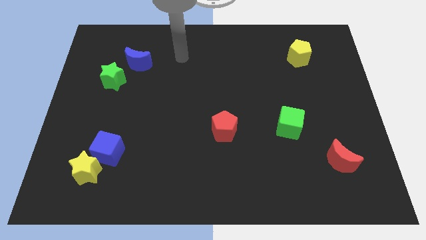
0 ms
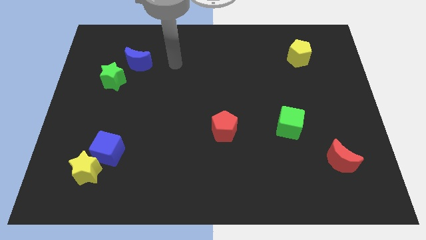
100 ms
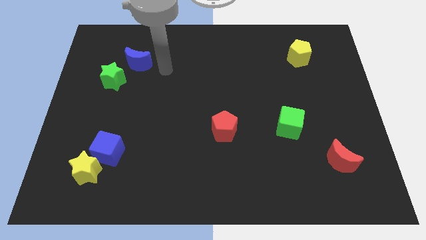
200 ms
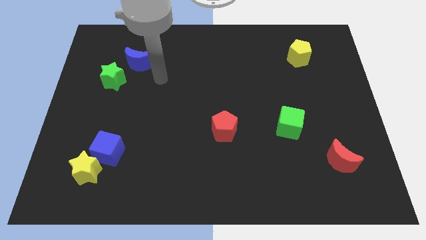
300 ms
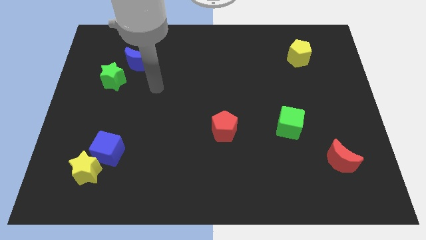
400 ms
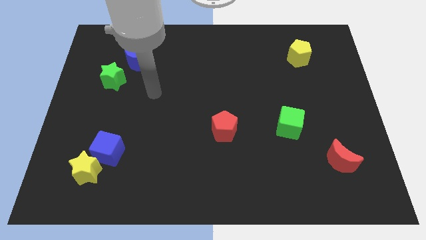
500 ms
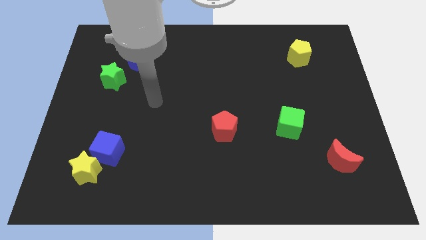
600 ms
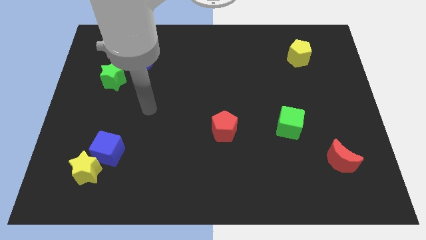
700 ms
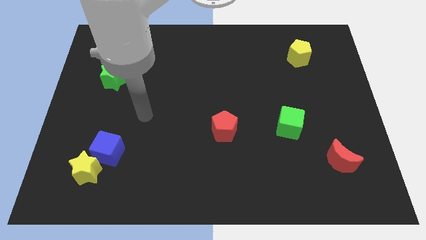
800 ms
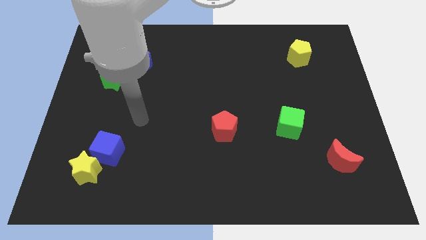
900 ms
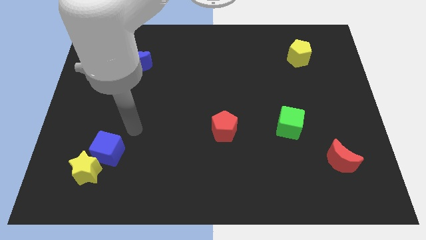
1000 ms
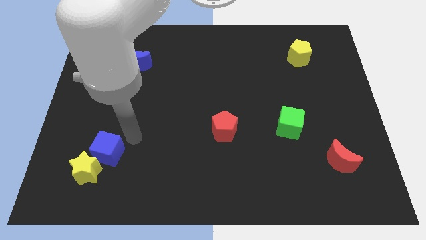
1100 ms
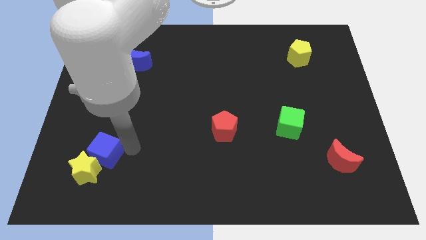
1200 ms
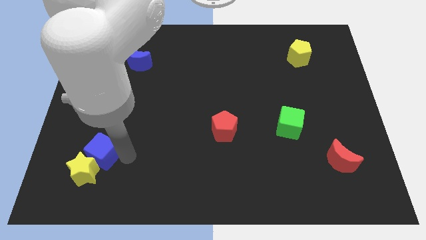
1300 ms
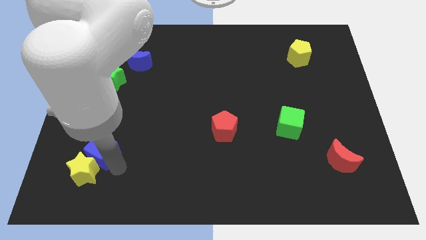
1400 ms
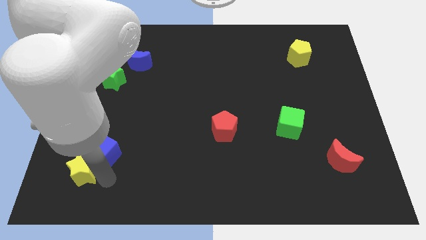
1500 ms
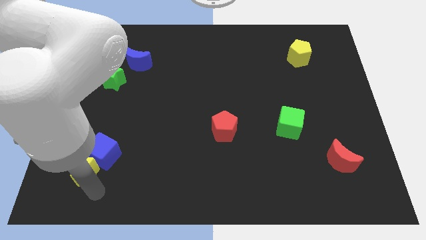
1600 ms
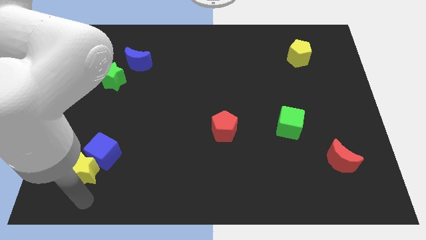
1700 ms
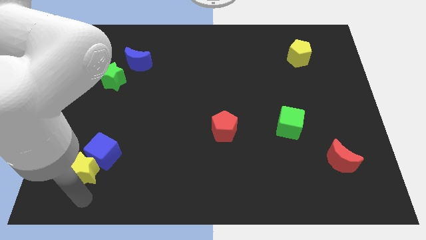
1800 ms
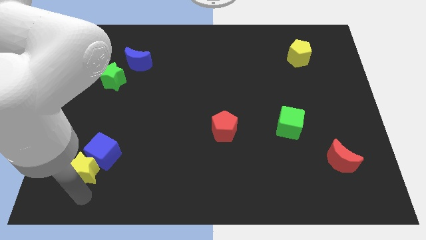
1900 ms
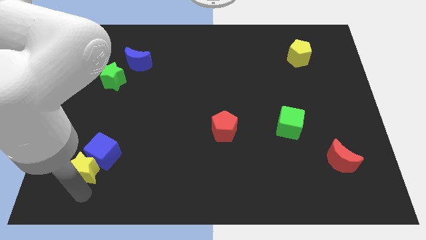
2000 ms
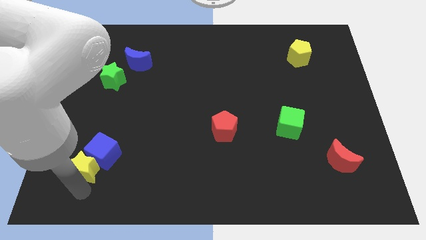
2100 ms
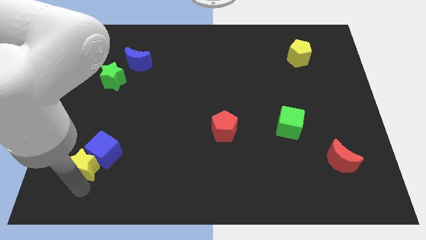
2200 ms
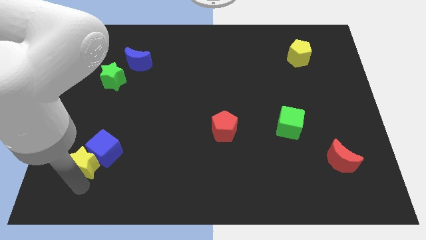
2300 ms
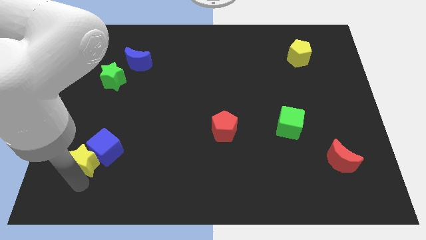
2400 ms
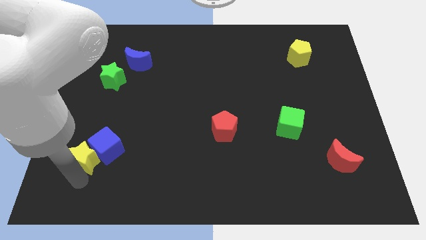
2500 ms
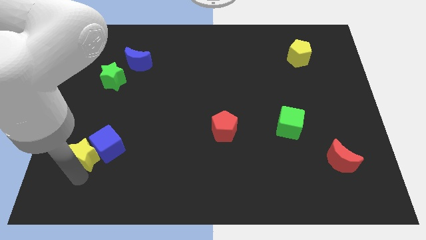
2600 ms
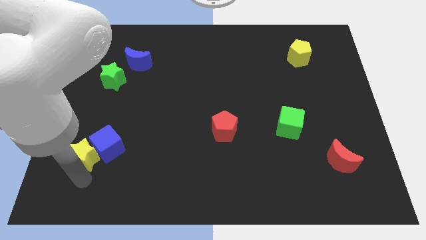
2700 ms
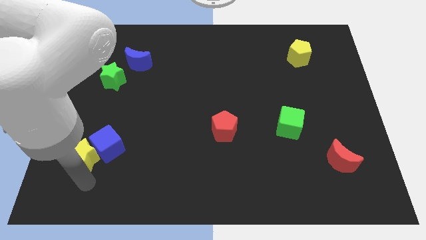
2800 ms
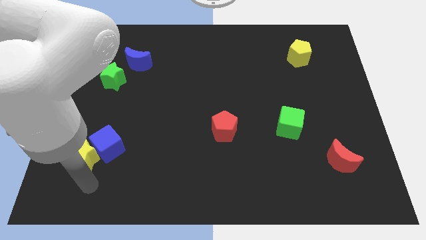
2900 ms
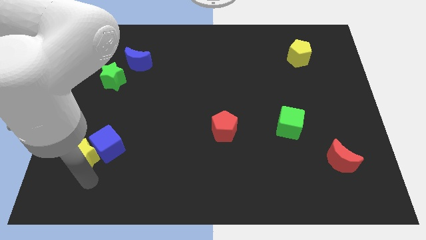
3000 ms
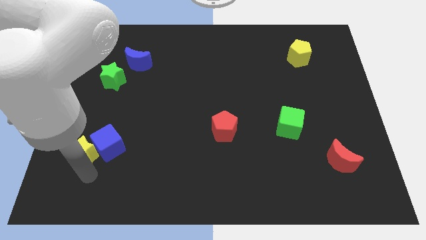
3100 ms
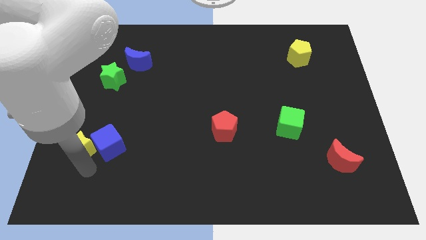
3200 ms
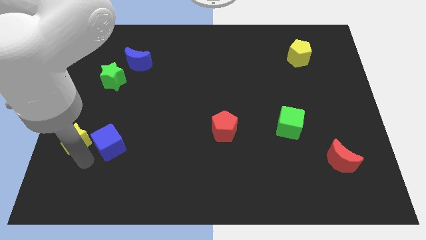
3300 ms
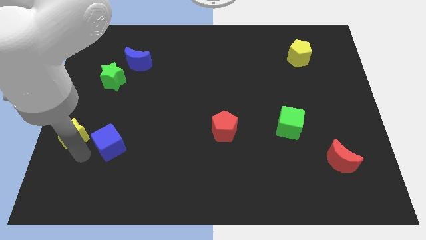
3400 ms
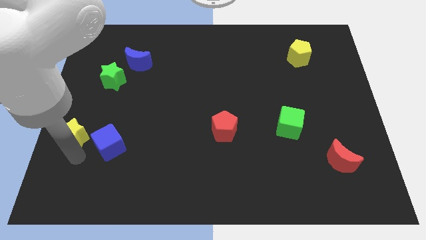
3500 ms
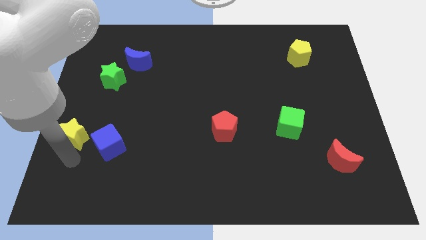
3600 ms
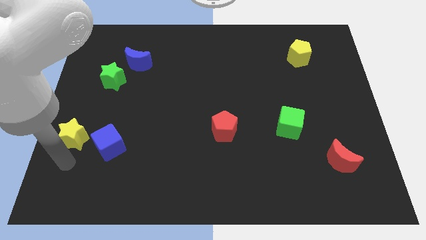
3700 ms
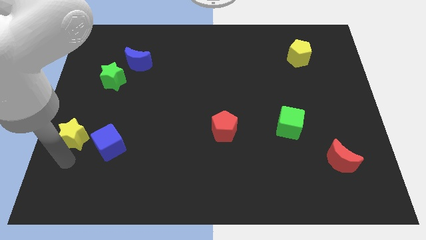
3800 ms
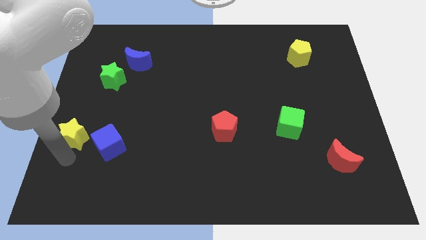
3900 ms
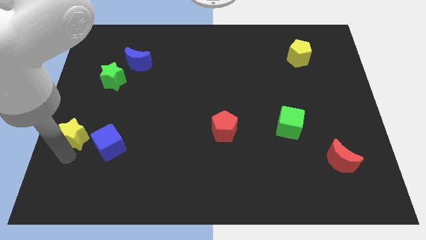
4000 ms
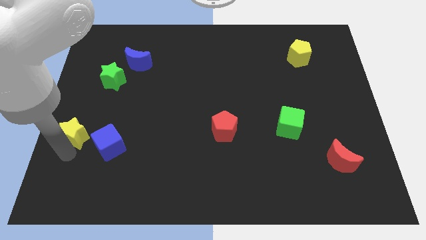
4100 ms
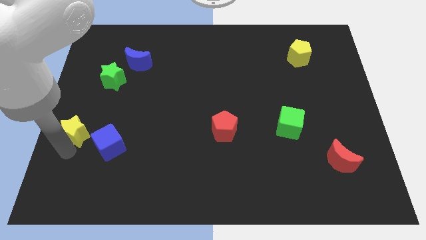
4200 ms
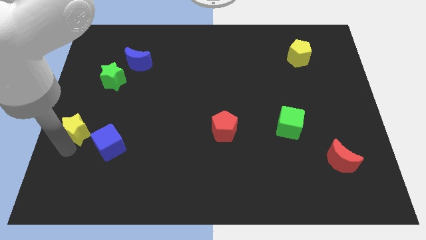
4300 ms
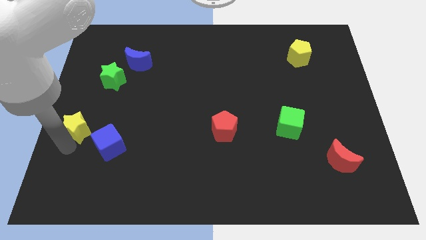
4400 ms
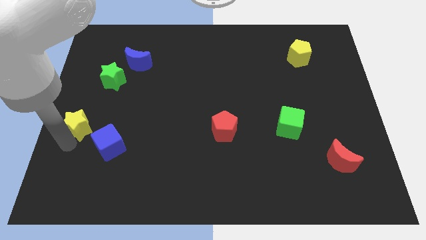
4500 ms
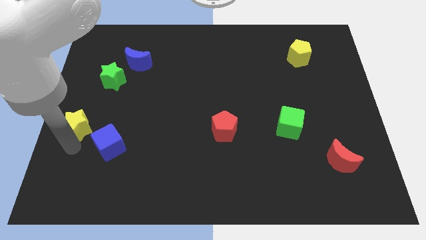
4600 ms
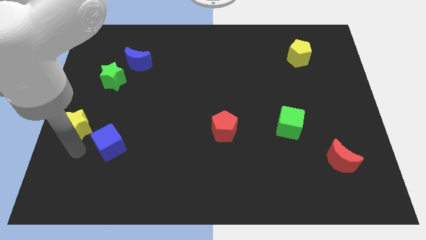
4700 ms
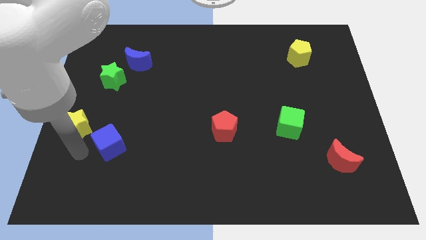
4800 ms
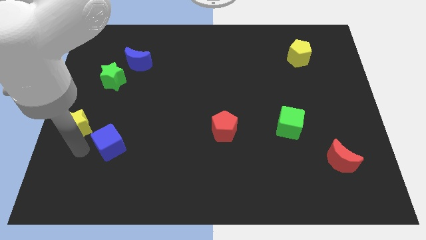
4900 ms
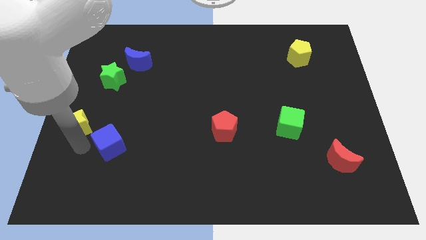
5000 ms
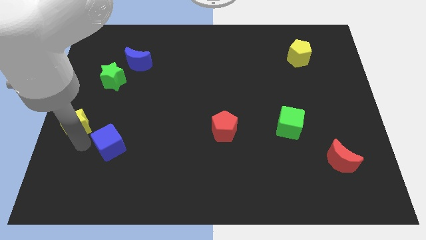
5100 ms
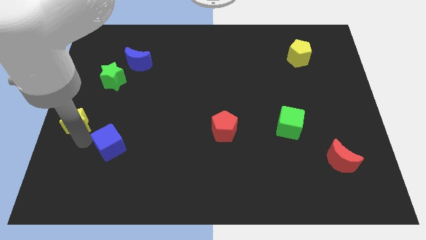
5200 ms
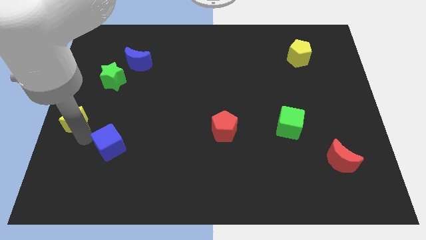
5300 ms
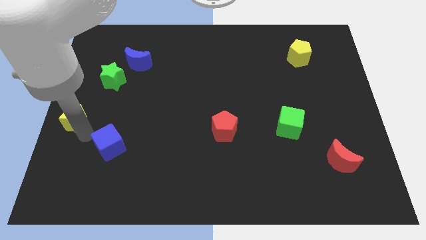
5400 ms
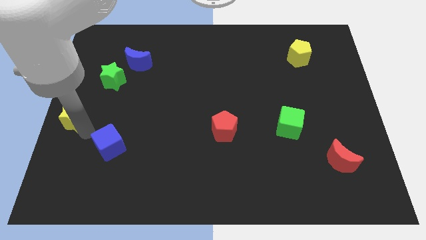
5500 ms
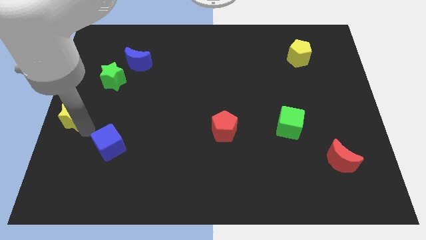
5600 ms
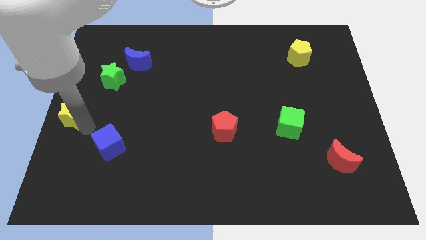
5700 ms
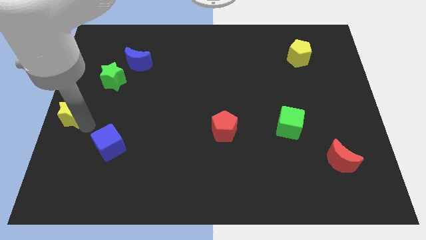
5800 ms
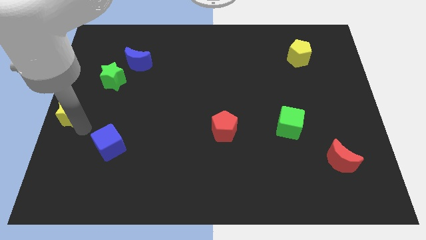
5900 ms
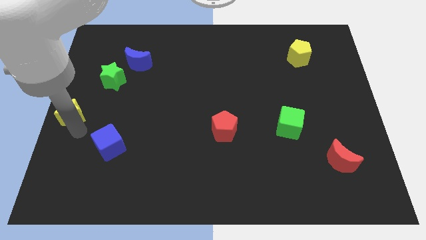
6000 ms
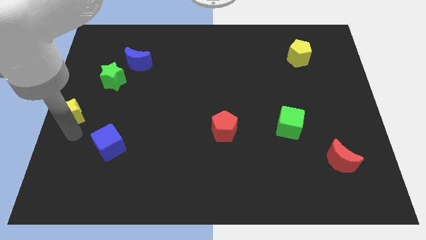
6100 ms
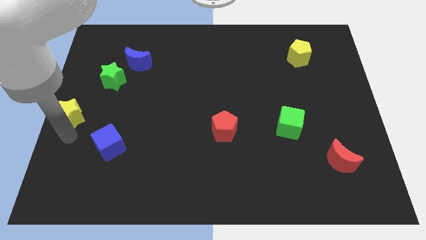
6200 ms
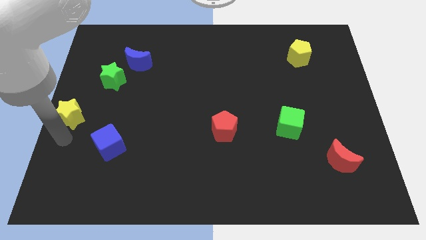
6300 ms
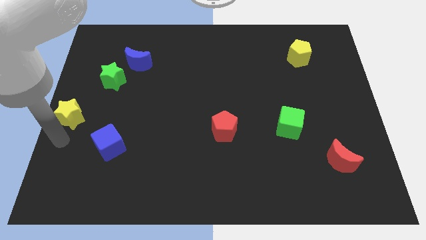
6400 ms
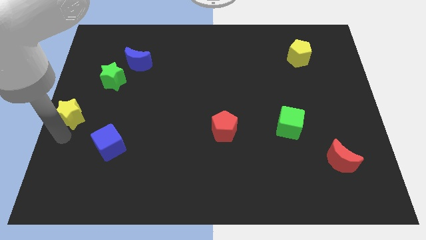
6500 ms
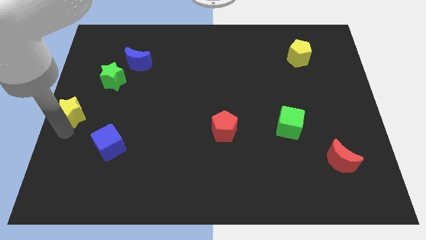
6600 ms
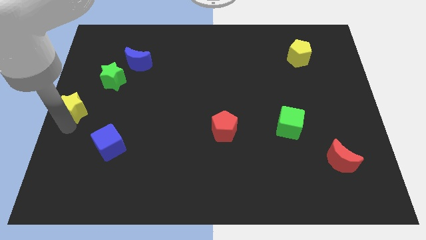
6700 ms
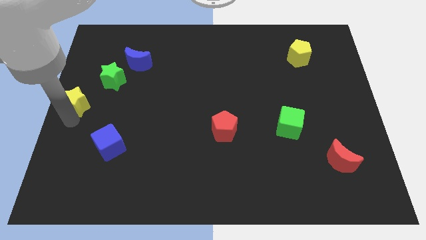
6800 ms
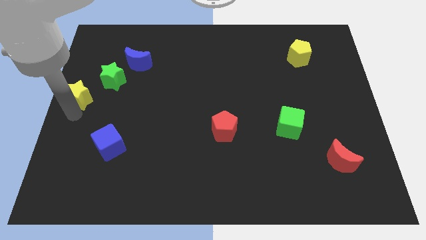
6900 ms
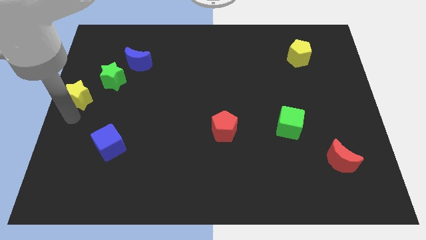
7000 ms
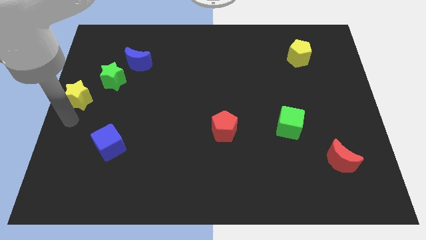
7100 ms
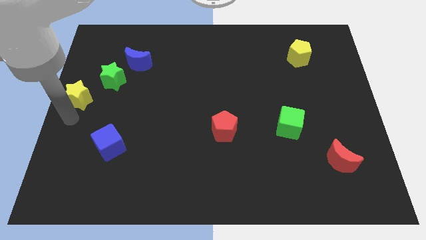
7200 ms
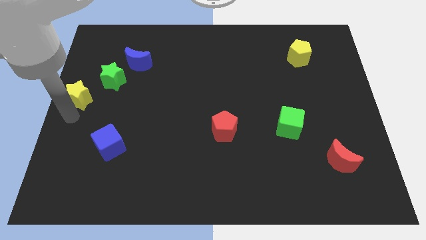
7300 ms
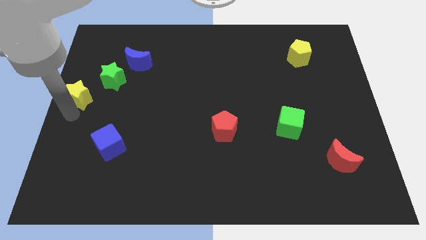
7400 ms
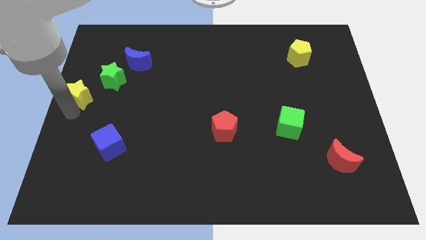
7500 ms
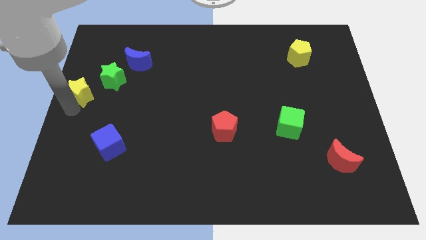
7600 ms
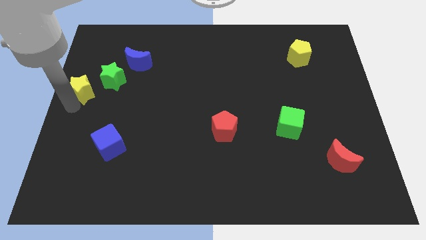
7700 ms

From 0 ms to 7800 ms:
push the yellow star up
